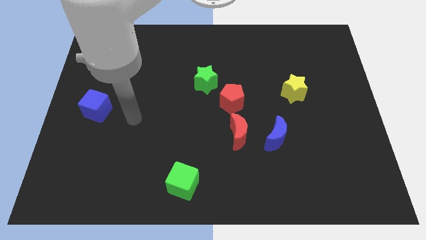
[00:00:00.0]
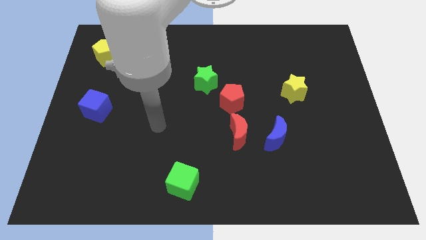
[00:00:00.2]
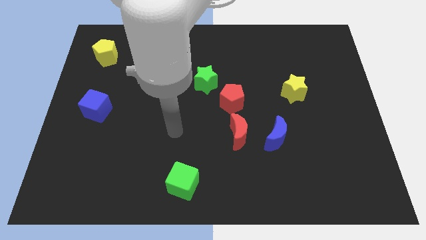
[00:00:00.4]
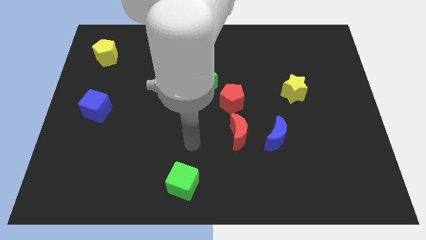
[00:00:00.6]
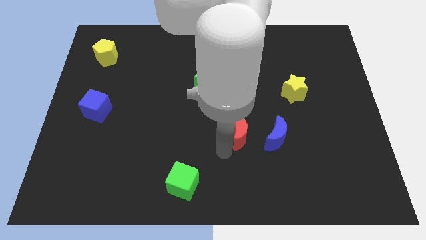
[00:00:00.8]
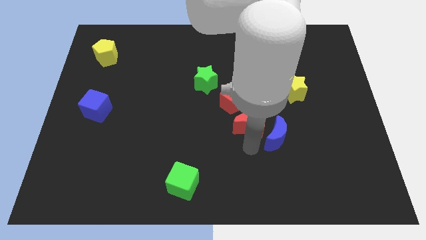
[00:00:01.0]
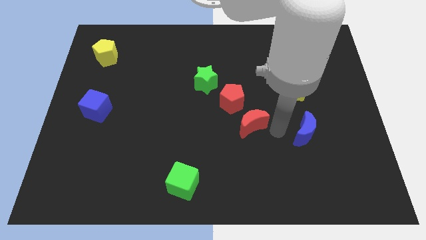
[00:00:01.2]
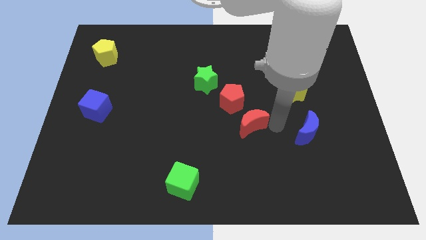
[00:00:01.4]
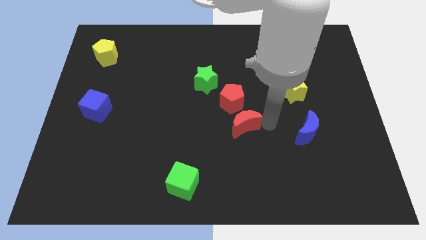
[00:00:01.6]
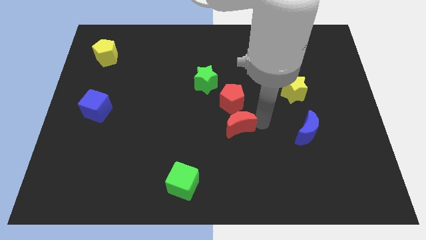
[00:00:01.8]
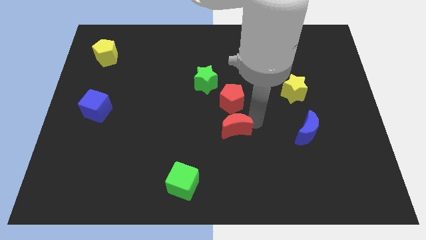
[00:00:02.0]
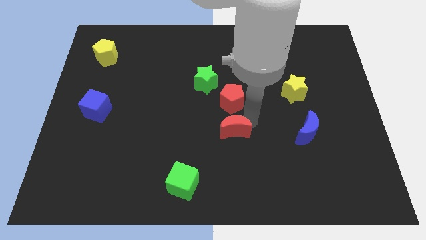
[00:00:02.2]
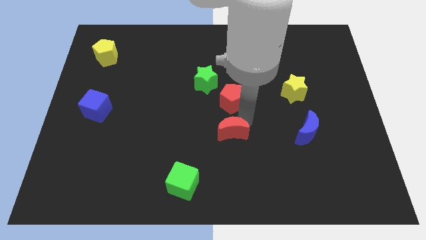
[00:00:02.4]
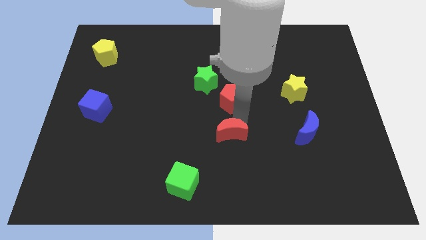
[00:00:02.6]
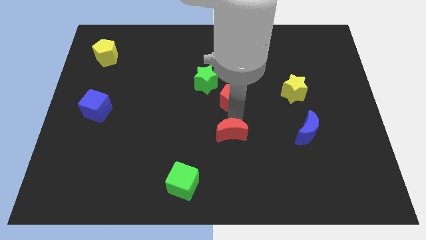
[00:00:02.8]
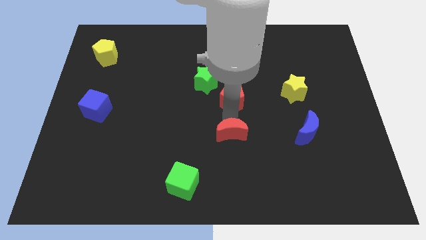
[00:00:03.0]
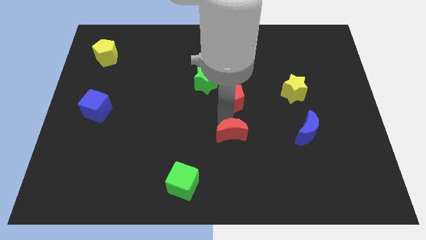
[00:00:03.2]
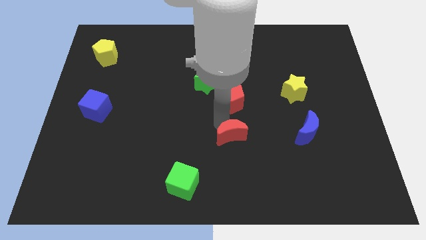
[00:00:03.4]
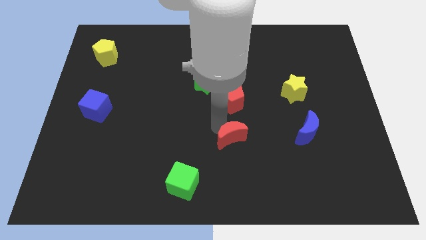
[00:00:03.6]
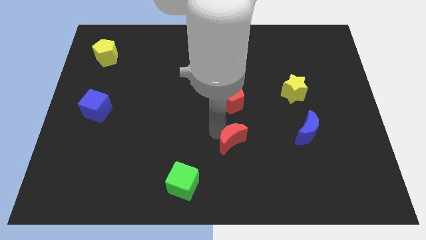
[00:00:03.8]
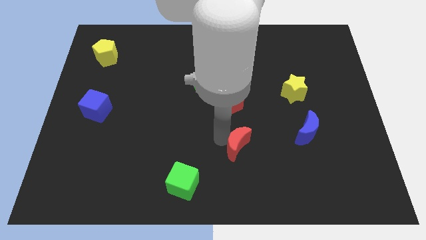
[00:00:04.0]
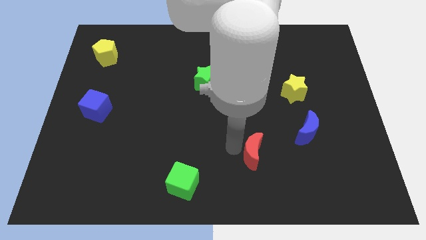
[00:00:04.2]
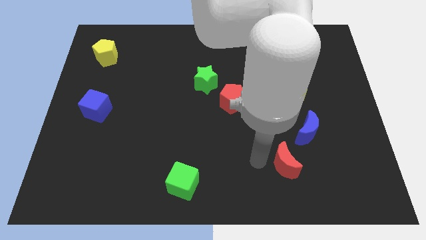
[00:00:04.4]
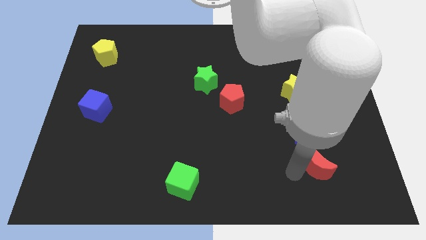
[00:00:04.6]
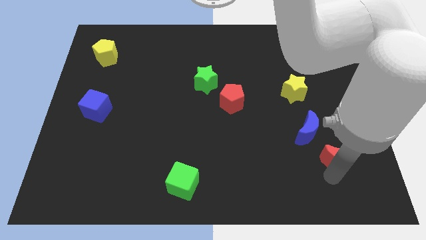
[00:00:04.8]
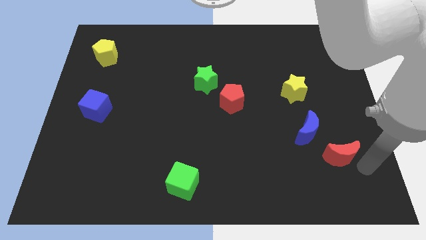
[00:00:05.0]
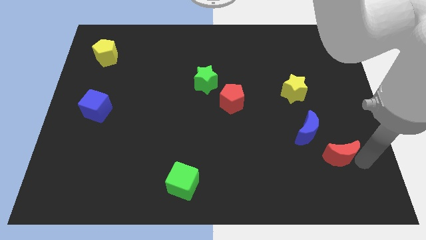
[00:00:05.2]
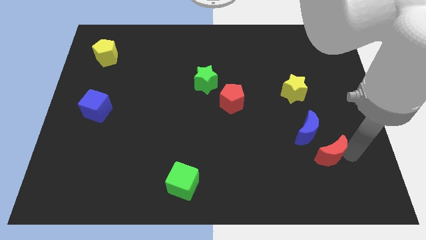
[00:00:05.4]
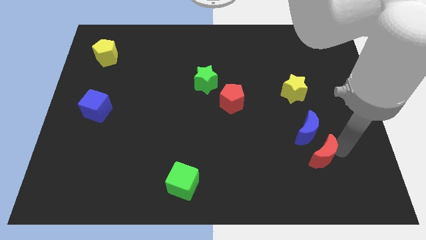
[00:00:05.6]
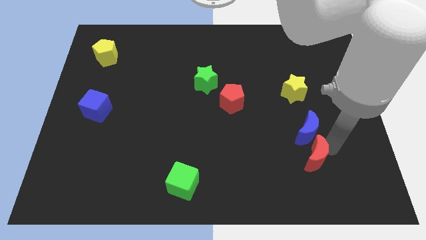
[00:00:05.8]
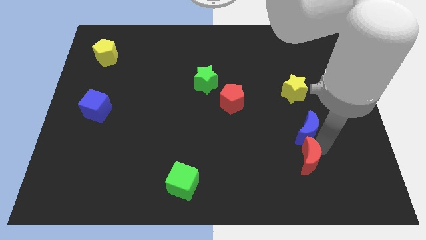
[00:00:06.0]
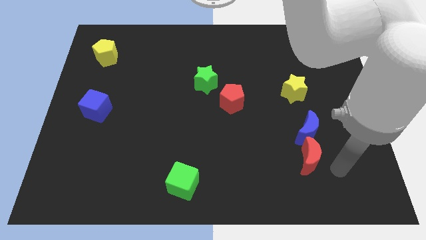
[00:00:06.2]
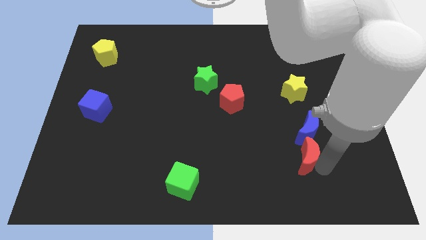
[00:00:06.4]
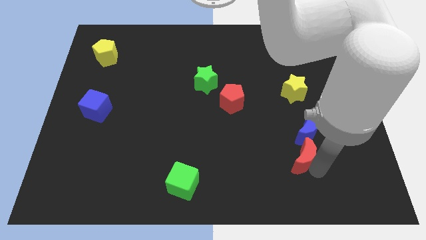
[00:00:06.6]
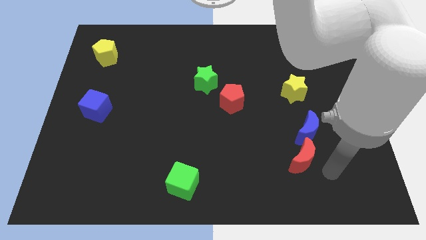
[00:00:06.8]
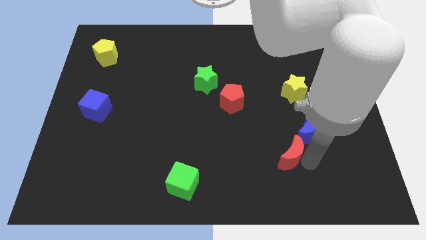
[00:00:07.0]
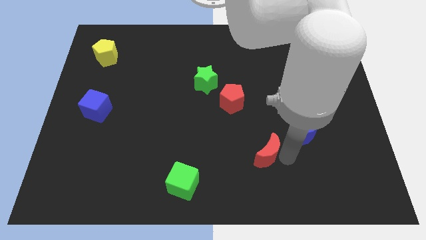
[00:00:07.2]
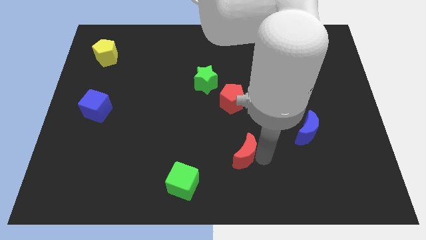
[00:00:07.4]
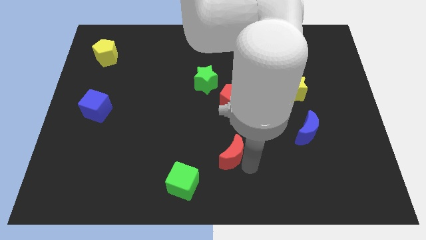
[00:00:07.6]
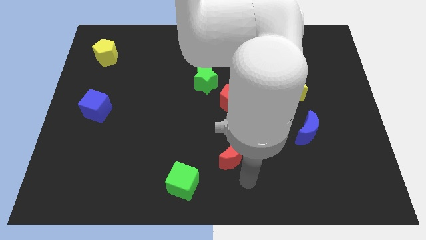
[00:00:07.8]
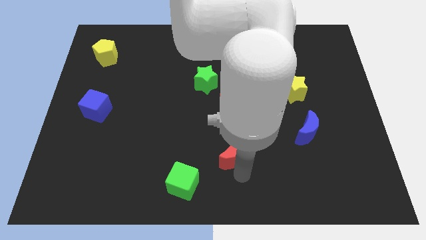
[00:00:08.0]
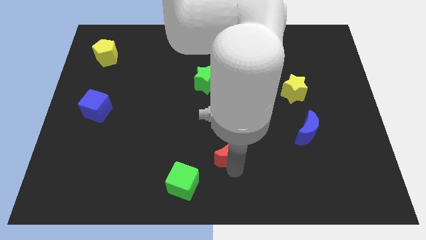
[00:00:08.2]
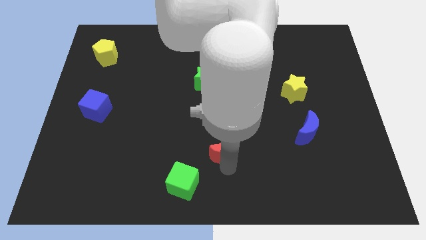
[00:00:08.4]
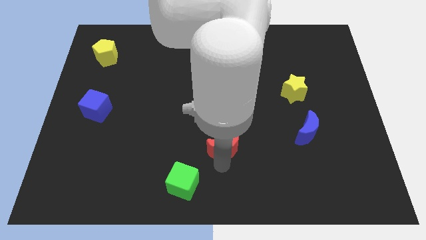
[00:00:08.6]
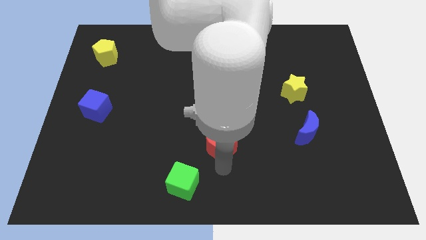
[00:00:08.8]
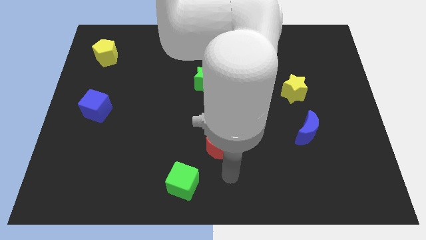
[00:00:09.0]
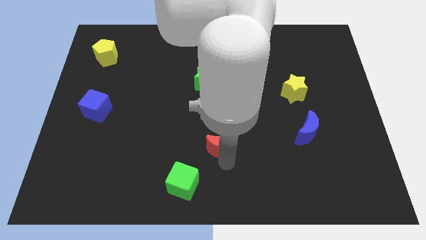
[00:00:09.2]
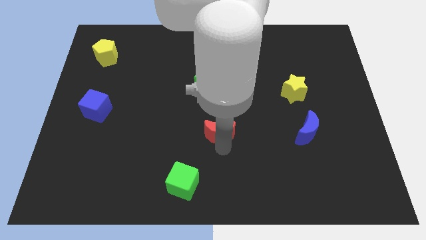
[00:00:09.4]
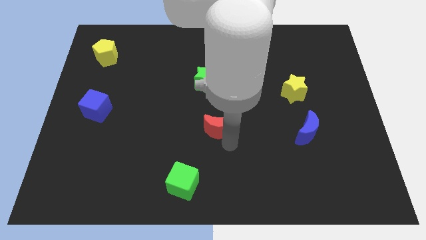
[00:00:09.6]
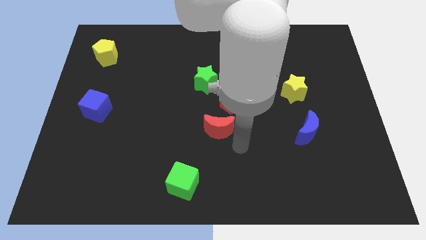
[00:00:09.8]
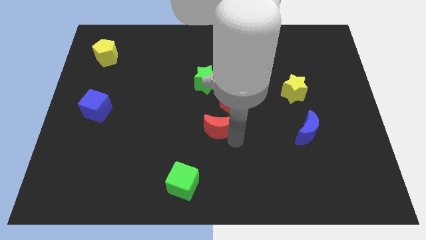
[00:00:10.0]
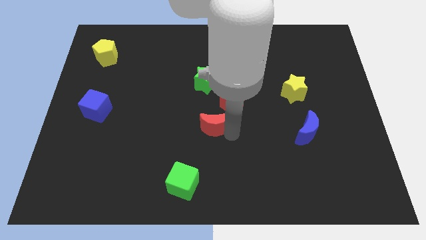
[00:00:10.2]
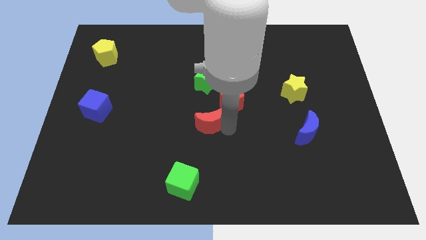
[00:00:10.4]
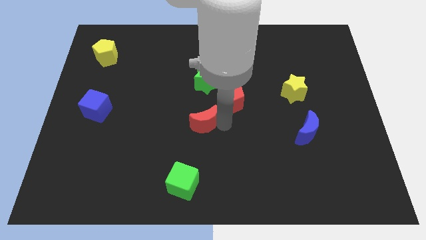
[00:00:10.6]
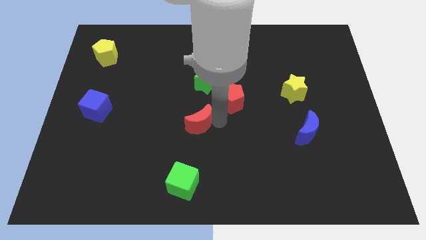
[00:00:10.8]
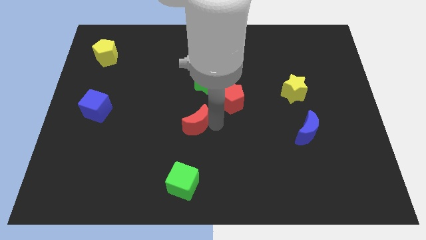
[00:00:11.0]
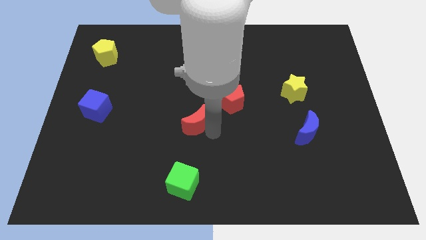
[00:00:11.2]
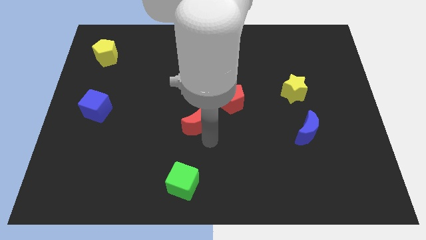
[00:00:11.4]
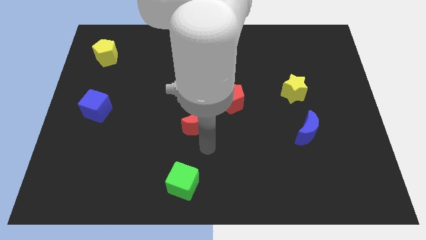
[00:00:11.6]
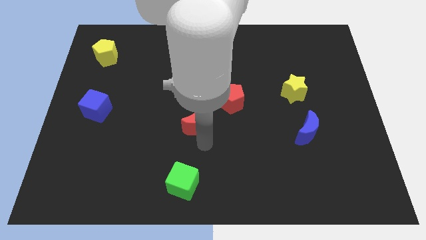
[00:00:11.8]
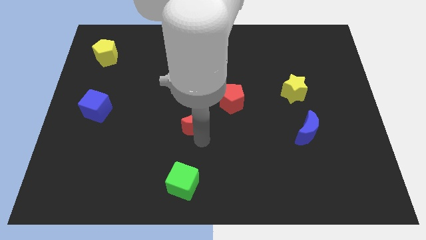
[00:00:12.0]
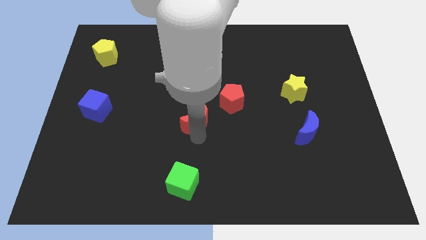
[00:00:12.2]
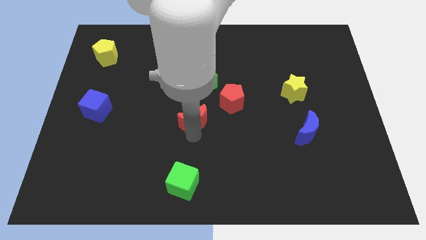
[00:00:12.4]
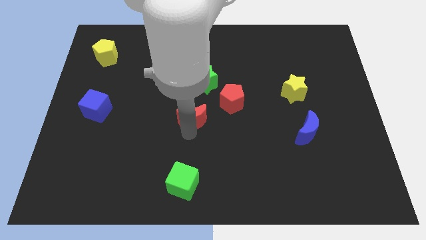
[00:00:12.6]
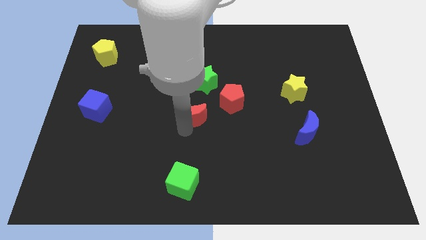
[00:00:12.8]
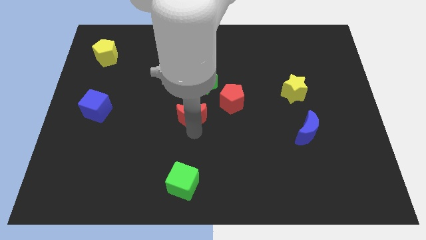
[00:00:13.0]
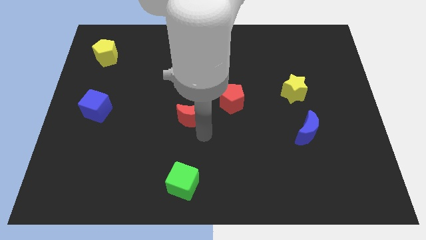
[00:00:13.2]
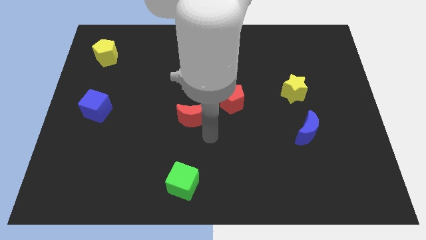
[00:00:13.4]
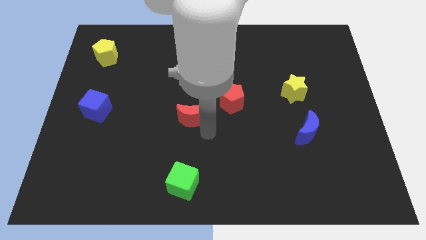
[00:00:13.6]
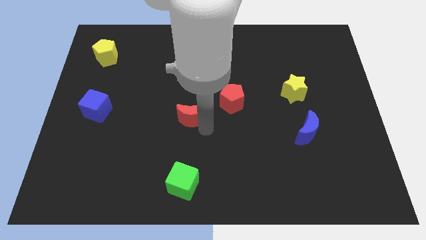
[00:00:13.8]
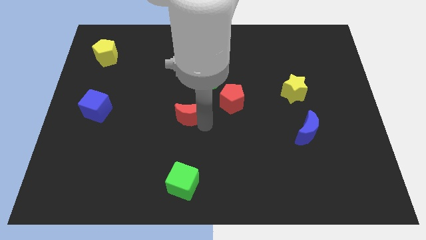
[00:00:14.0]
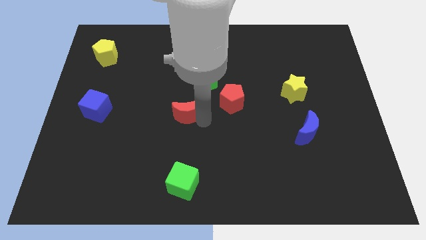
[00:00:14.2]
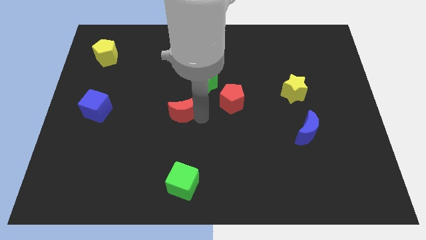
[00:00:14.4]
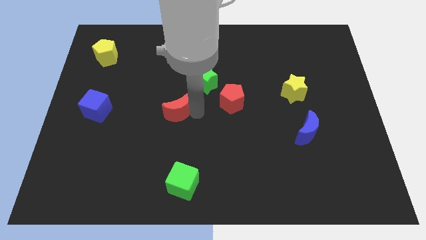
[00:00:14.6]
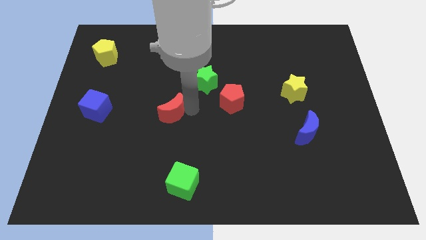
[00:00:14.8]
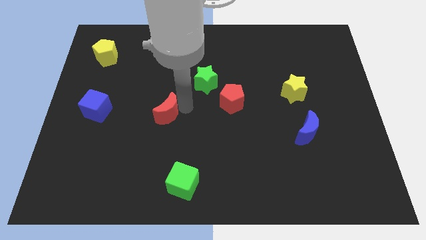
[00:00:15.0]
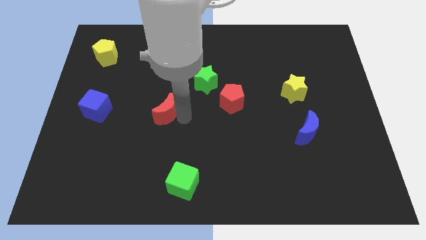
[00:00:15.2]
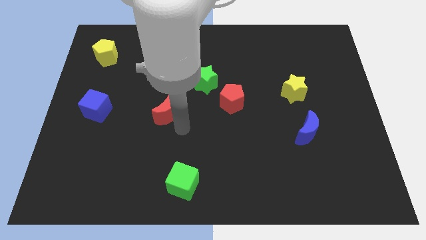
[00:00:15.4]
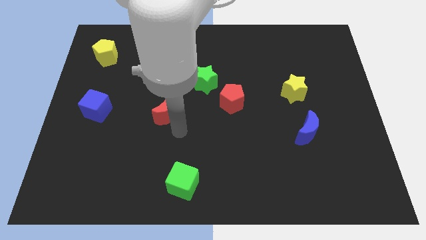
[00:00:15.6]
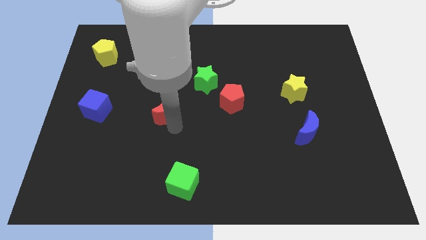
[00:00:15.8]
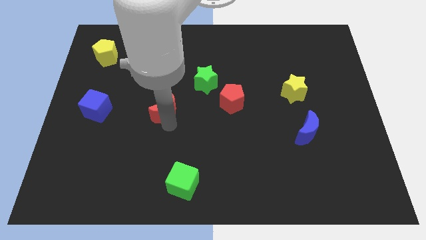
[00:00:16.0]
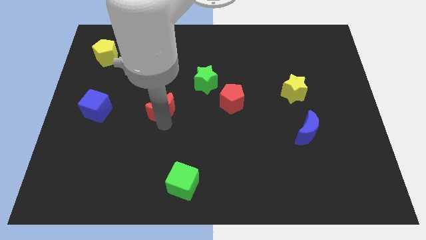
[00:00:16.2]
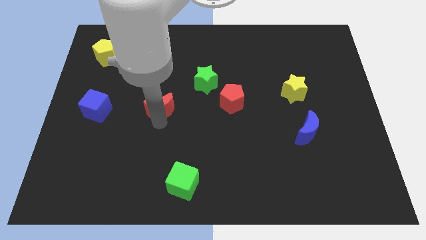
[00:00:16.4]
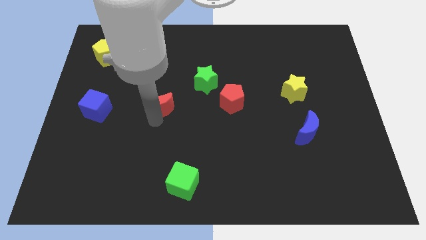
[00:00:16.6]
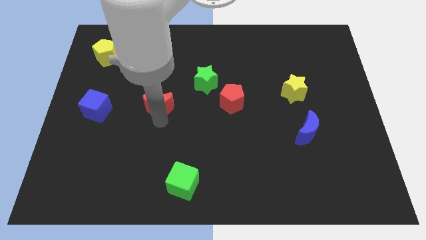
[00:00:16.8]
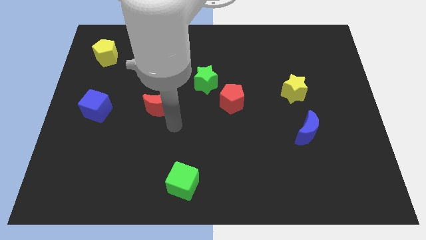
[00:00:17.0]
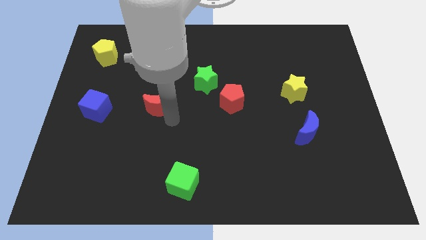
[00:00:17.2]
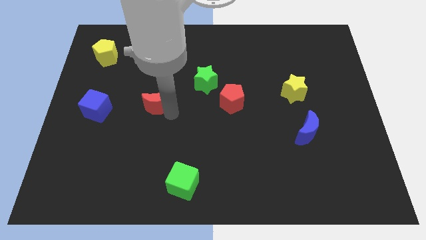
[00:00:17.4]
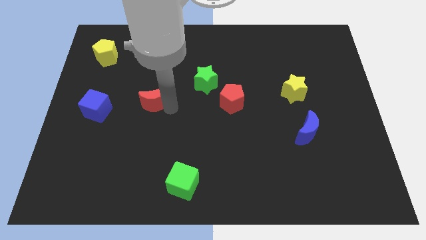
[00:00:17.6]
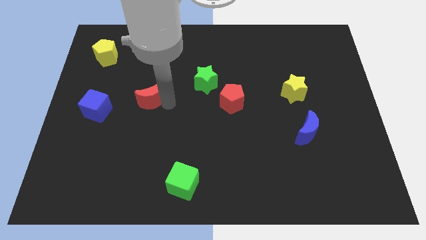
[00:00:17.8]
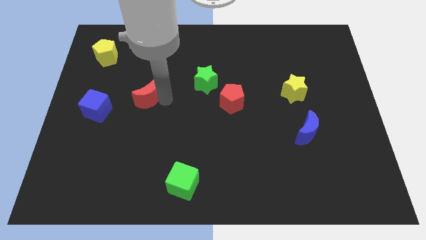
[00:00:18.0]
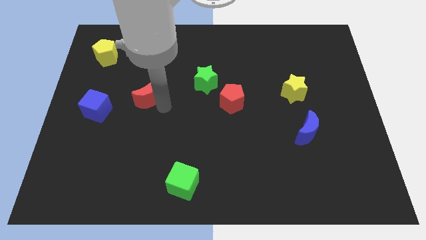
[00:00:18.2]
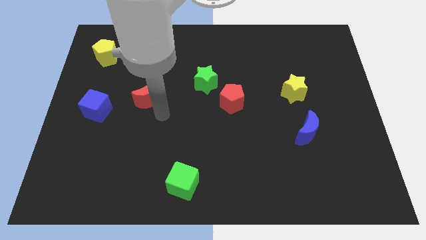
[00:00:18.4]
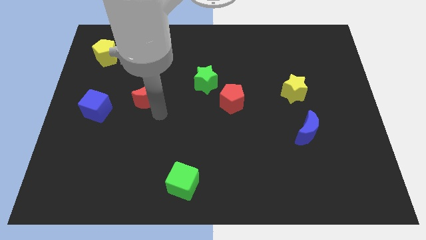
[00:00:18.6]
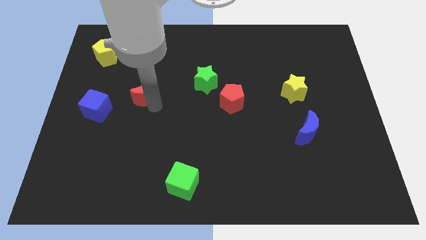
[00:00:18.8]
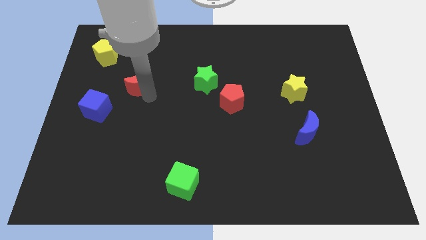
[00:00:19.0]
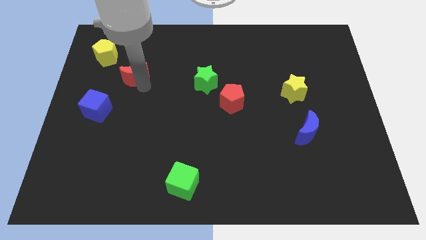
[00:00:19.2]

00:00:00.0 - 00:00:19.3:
put the red moon to the bottom right side of the yellow pentagon
